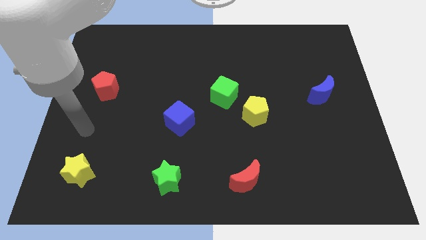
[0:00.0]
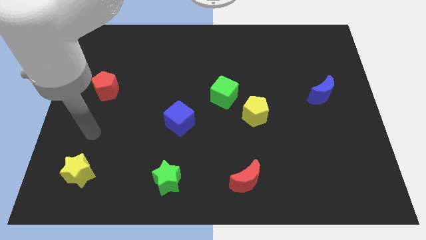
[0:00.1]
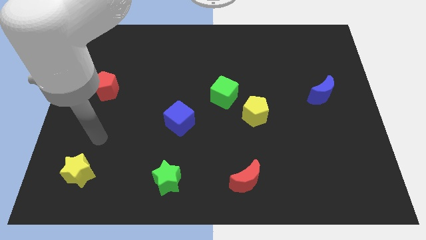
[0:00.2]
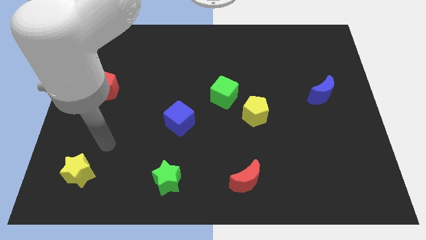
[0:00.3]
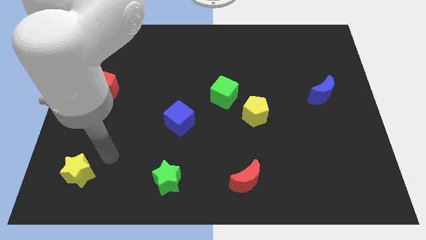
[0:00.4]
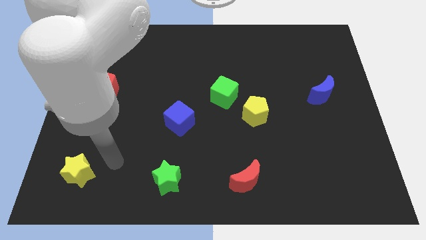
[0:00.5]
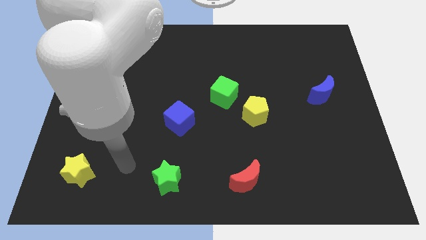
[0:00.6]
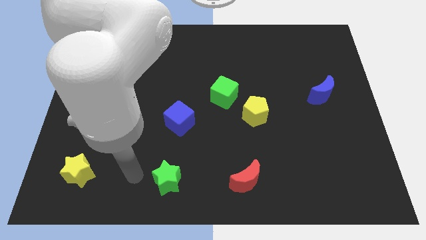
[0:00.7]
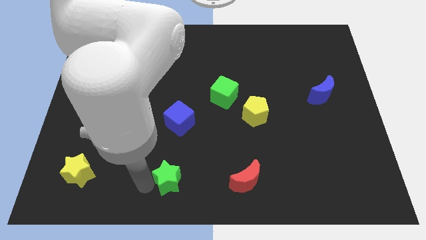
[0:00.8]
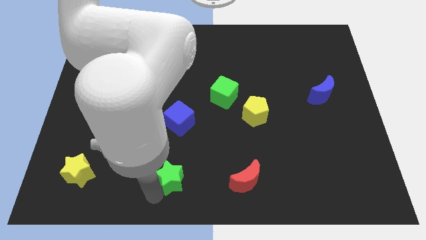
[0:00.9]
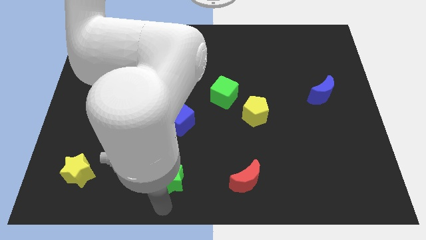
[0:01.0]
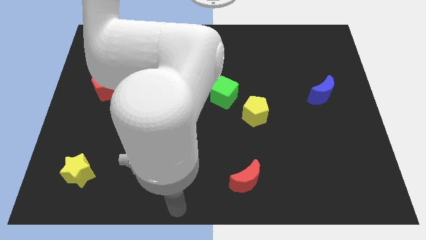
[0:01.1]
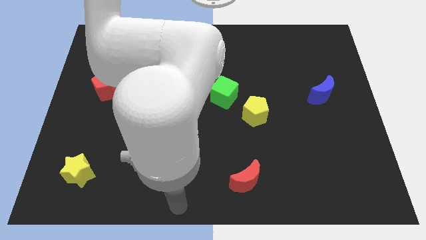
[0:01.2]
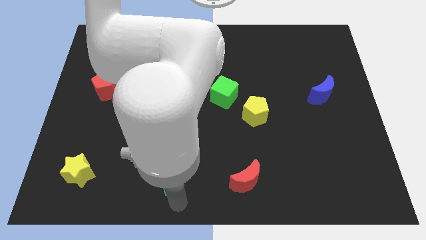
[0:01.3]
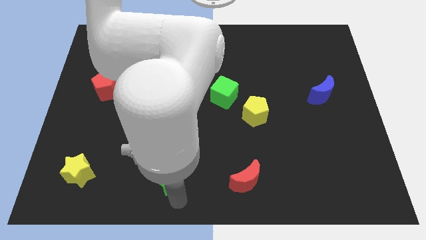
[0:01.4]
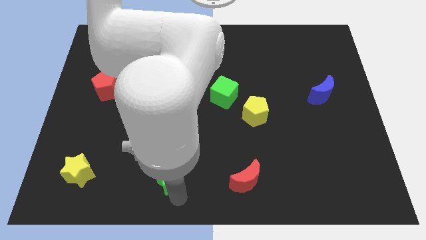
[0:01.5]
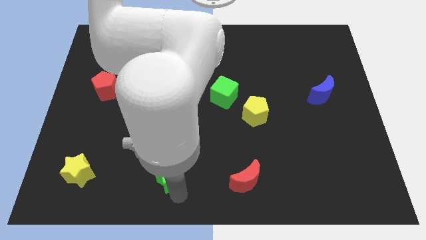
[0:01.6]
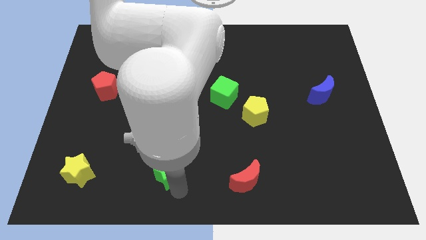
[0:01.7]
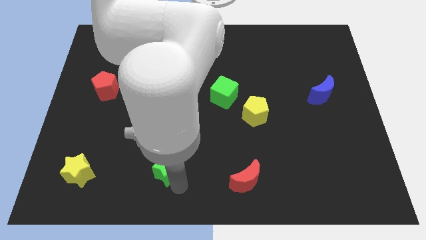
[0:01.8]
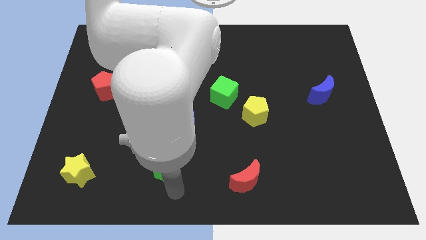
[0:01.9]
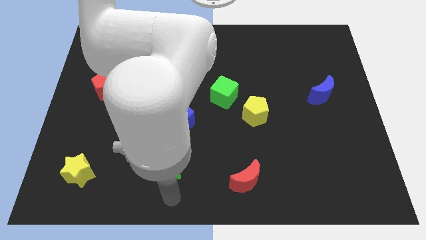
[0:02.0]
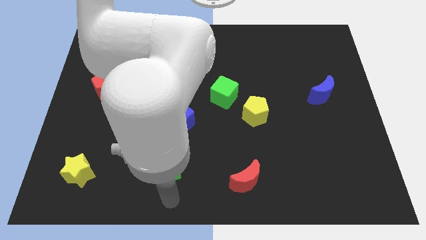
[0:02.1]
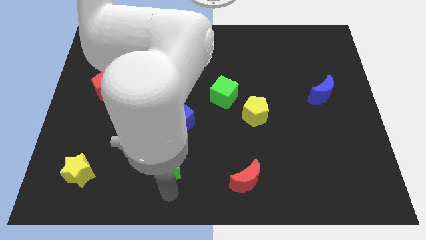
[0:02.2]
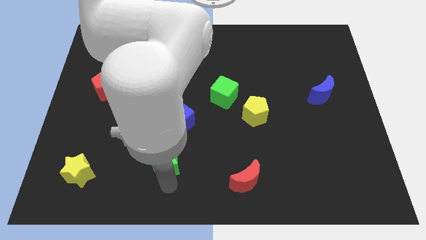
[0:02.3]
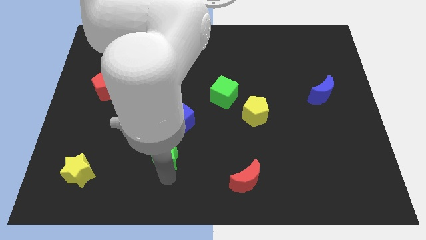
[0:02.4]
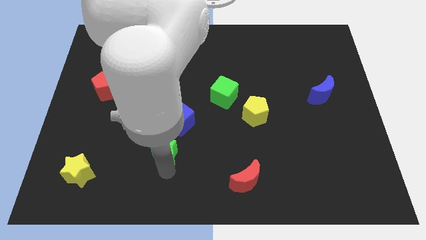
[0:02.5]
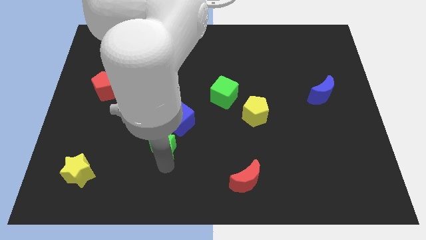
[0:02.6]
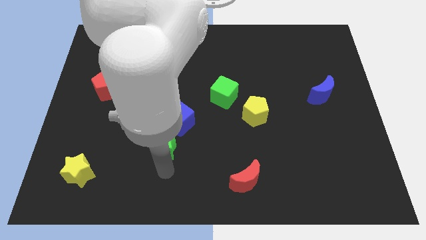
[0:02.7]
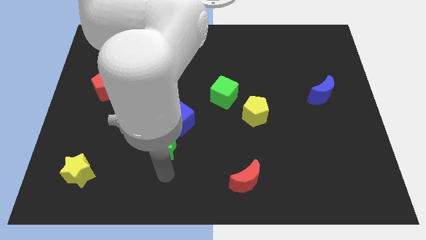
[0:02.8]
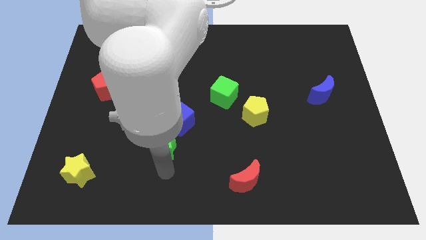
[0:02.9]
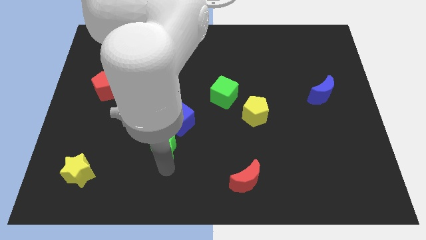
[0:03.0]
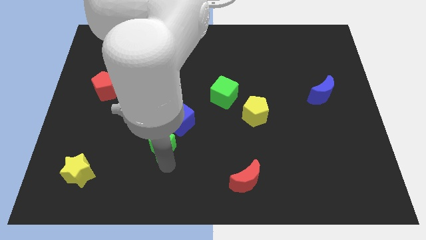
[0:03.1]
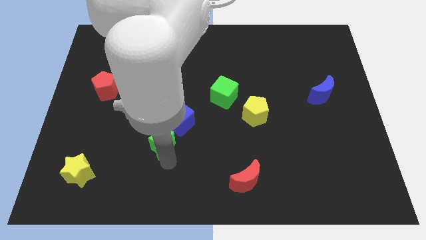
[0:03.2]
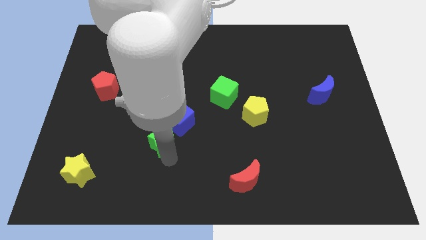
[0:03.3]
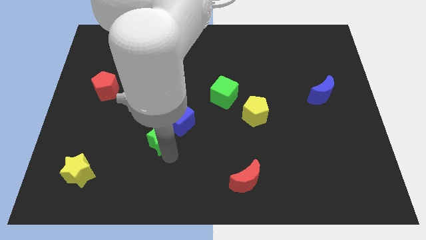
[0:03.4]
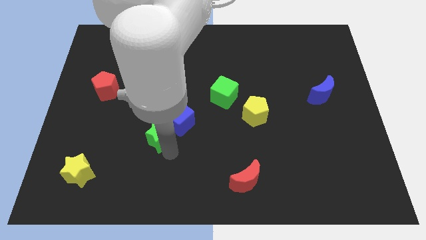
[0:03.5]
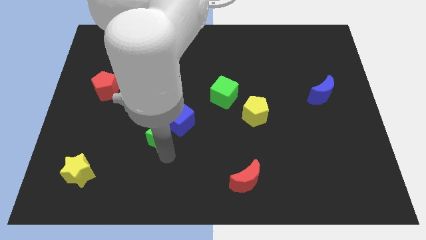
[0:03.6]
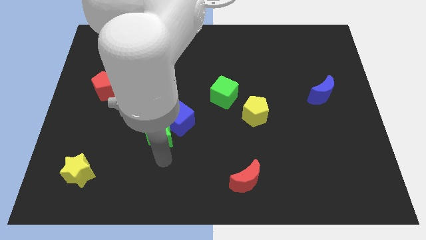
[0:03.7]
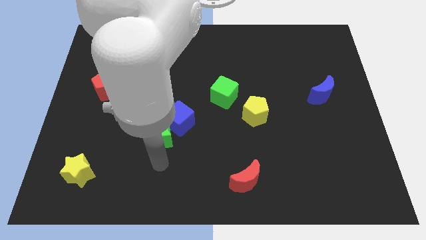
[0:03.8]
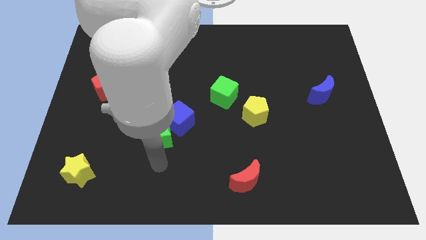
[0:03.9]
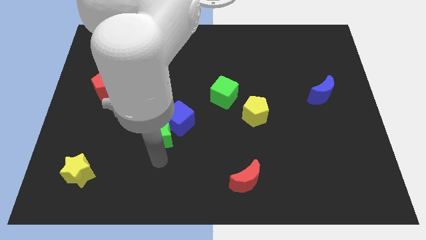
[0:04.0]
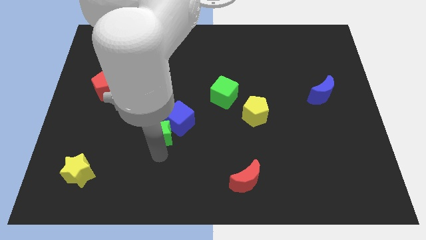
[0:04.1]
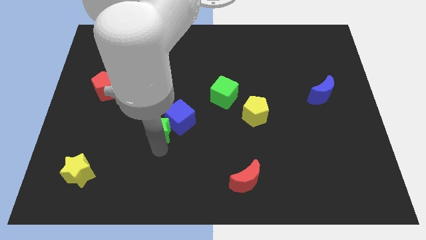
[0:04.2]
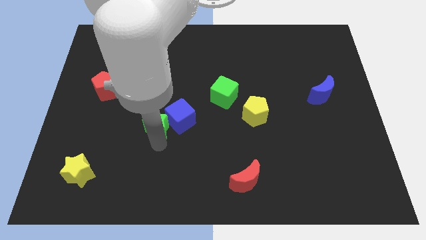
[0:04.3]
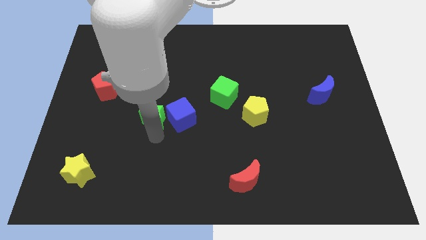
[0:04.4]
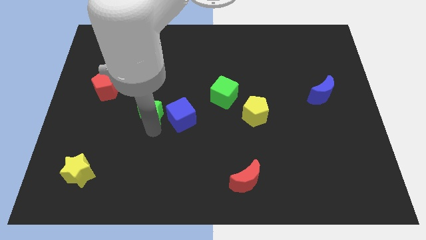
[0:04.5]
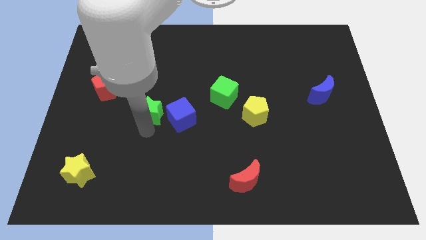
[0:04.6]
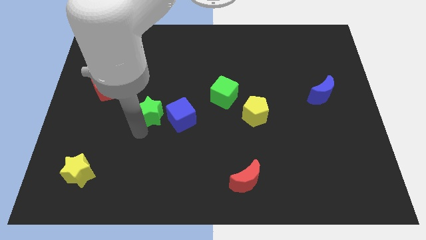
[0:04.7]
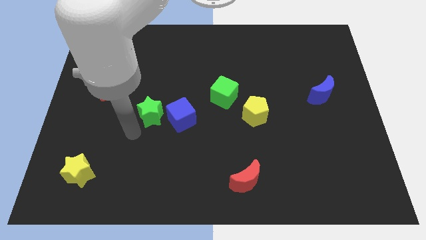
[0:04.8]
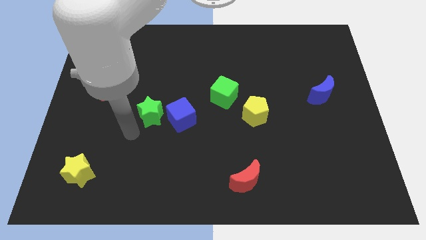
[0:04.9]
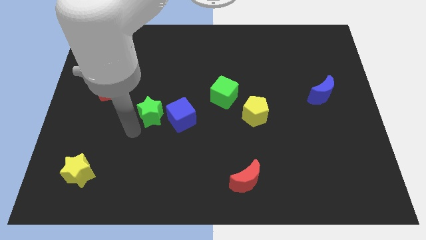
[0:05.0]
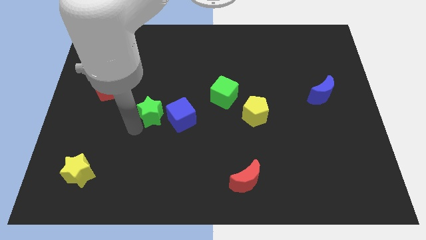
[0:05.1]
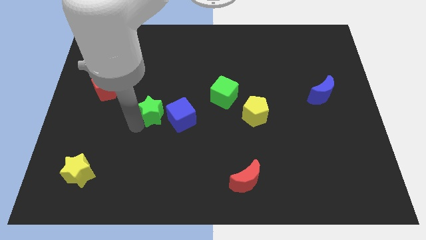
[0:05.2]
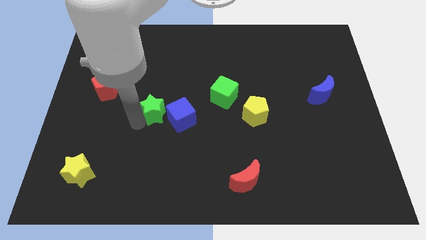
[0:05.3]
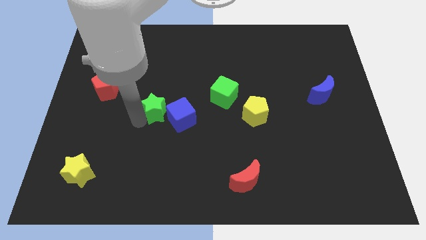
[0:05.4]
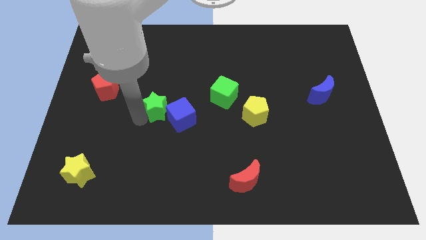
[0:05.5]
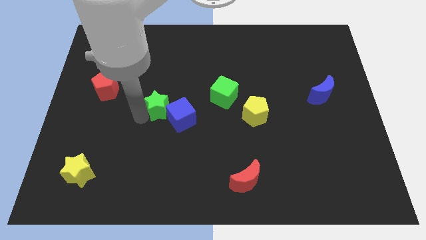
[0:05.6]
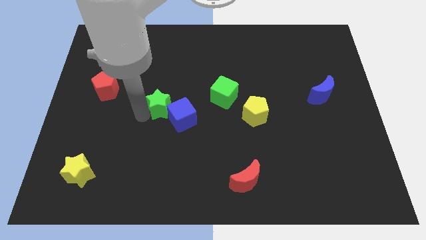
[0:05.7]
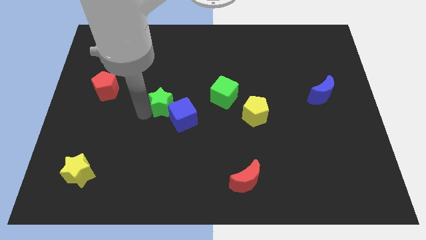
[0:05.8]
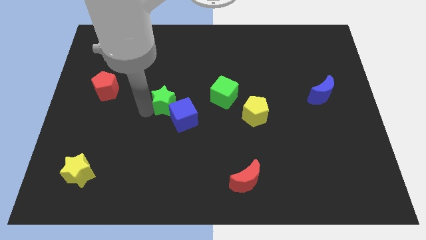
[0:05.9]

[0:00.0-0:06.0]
push the green star up

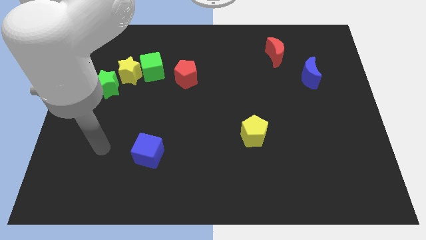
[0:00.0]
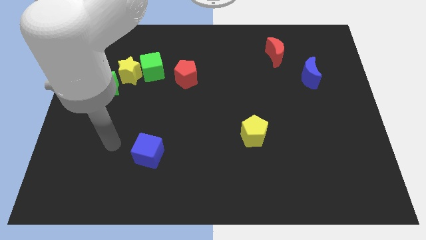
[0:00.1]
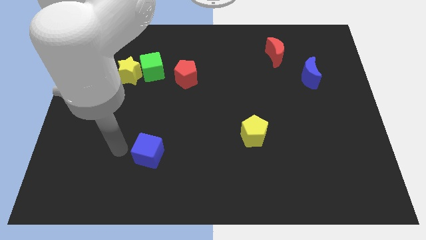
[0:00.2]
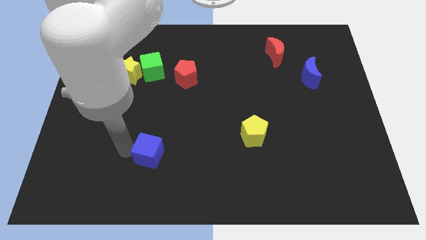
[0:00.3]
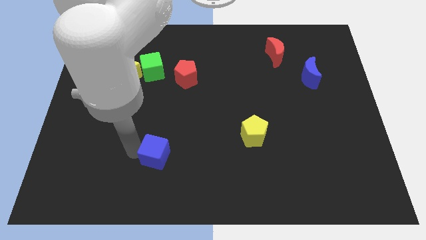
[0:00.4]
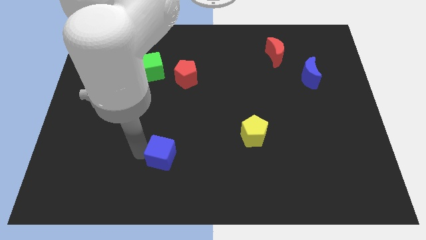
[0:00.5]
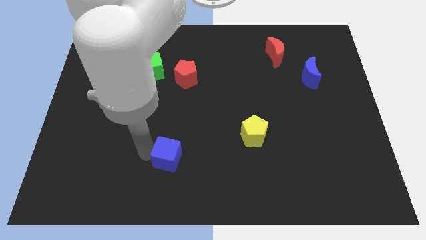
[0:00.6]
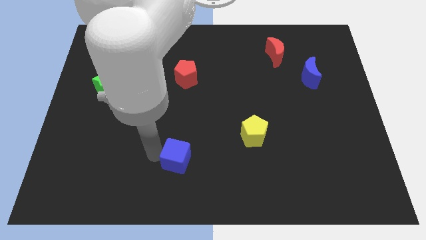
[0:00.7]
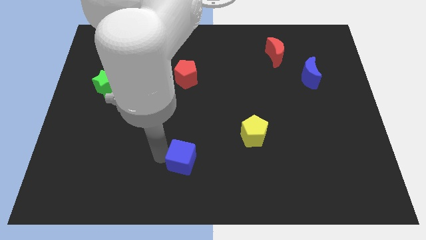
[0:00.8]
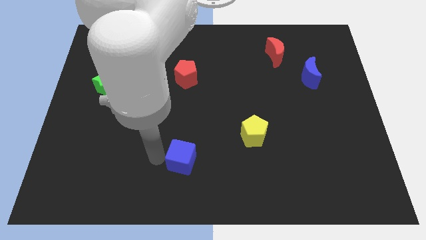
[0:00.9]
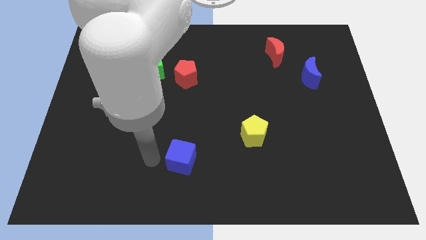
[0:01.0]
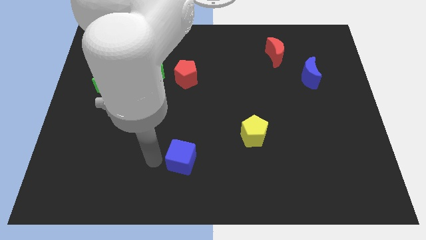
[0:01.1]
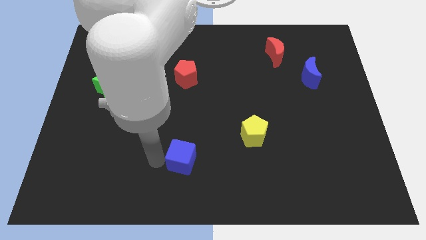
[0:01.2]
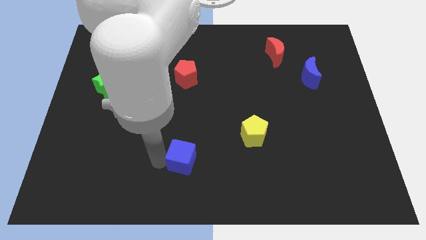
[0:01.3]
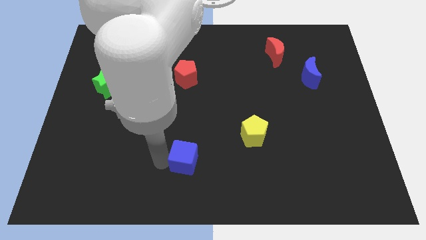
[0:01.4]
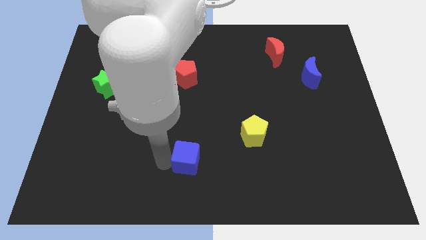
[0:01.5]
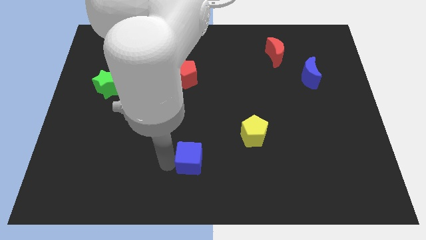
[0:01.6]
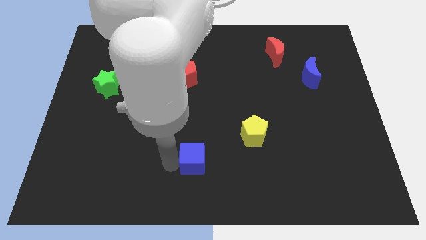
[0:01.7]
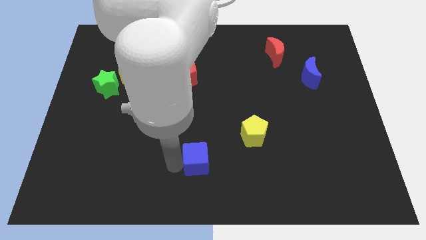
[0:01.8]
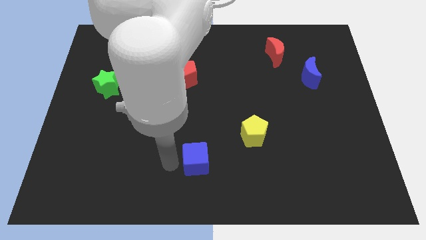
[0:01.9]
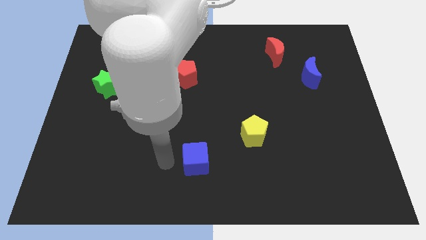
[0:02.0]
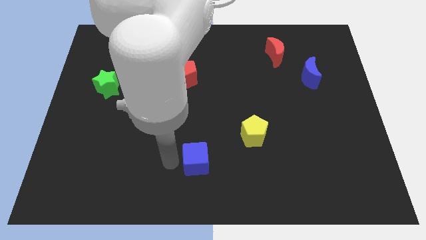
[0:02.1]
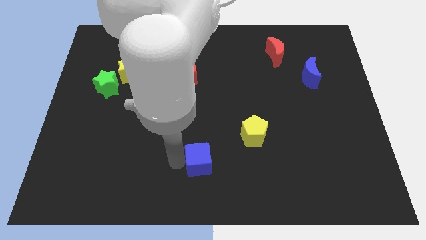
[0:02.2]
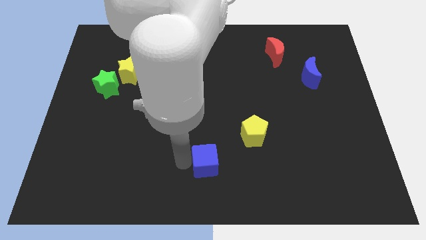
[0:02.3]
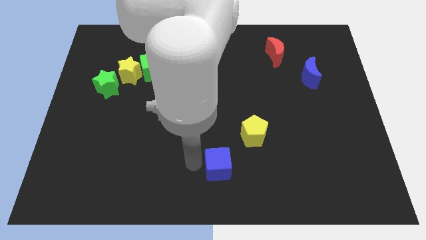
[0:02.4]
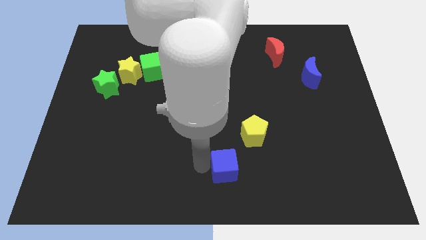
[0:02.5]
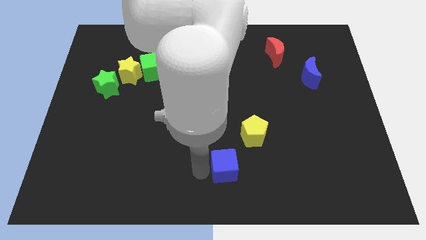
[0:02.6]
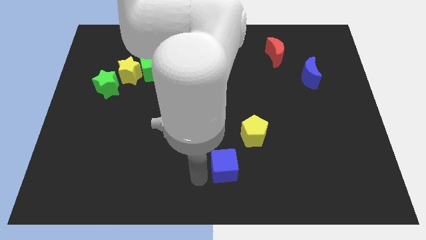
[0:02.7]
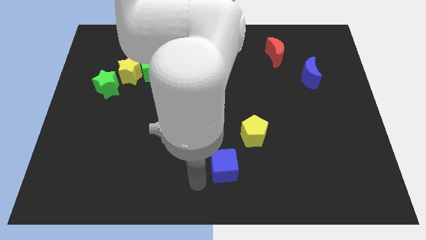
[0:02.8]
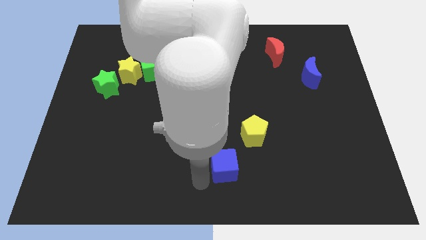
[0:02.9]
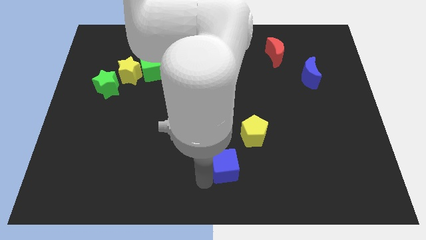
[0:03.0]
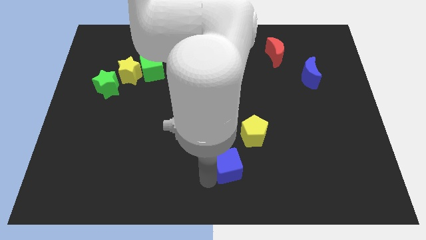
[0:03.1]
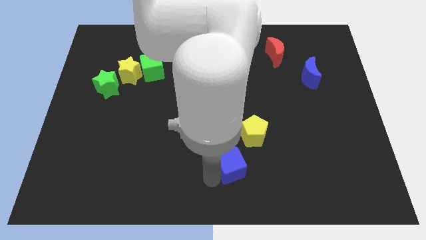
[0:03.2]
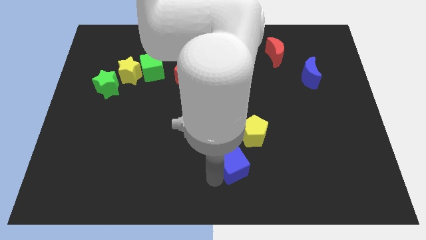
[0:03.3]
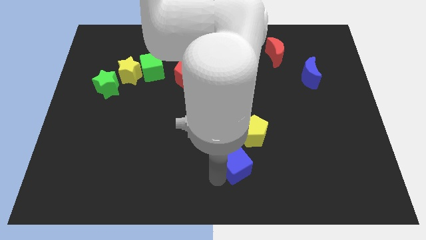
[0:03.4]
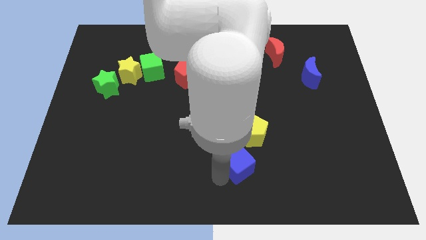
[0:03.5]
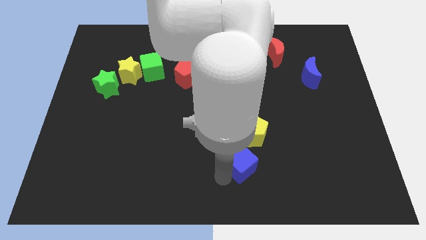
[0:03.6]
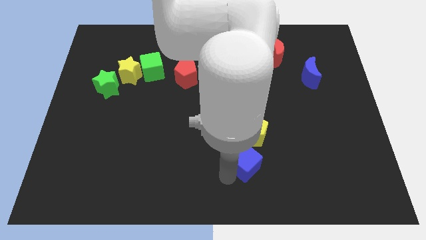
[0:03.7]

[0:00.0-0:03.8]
move the blue cube to the right
